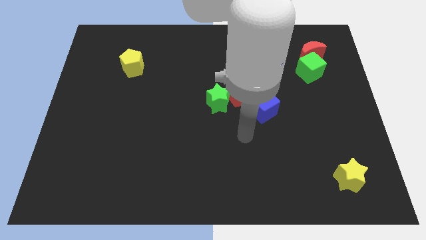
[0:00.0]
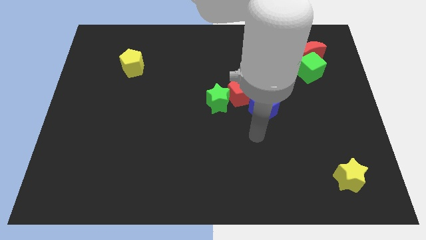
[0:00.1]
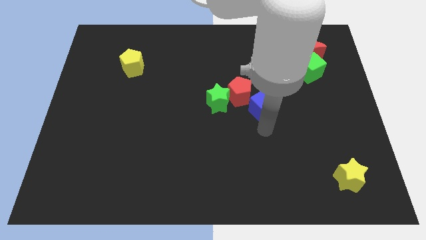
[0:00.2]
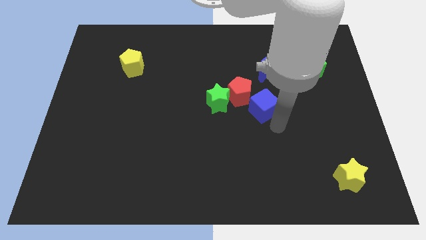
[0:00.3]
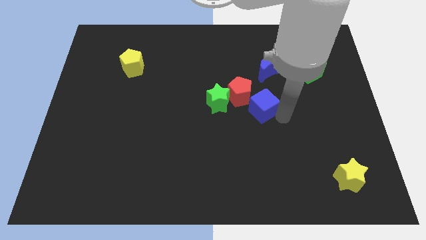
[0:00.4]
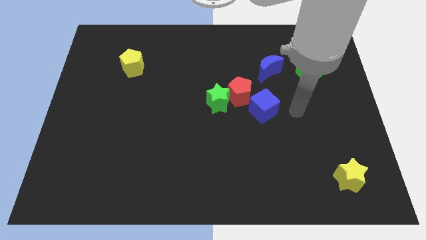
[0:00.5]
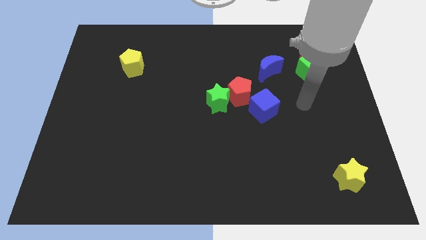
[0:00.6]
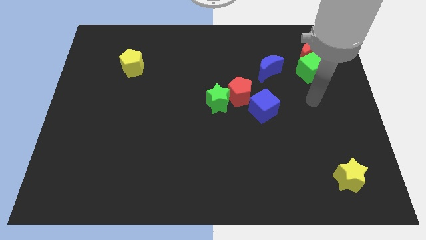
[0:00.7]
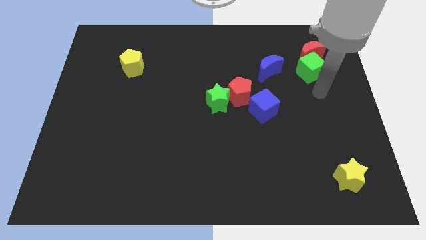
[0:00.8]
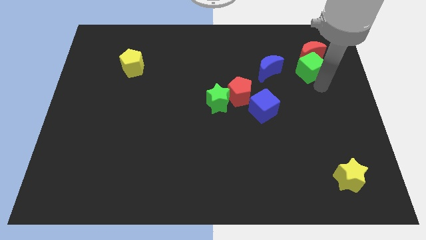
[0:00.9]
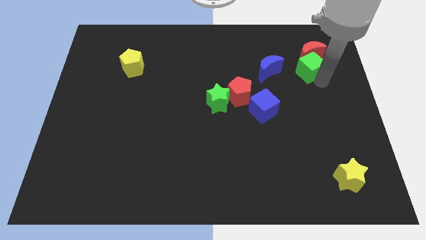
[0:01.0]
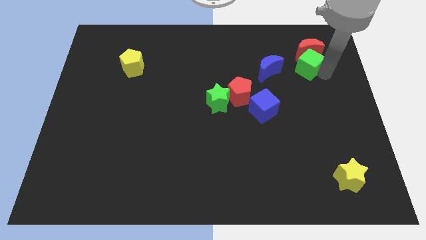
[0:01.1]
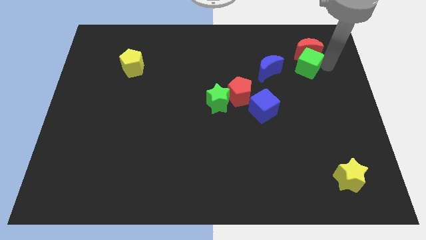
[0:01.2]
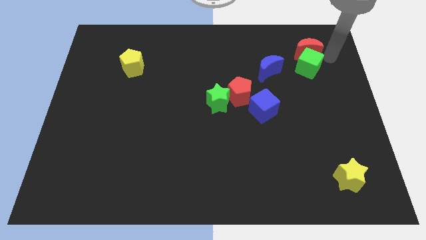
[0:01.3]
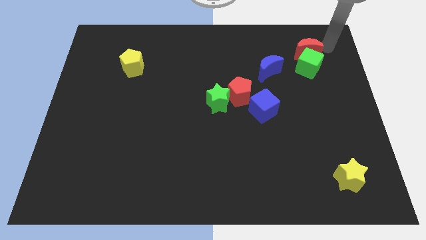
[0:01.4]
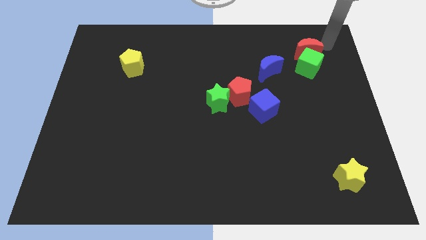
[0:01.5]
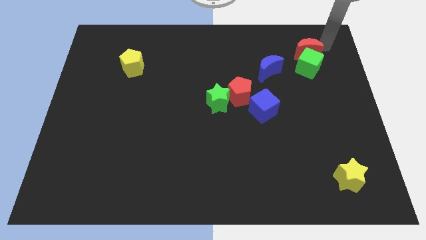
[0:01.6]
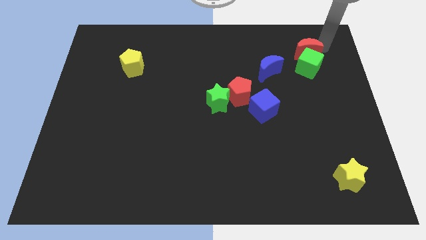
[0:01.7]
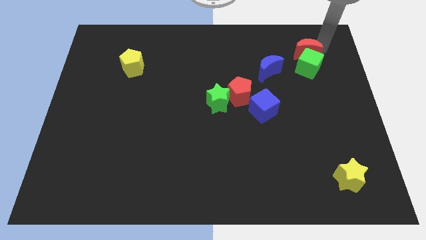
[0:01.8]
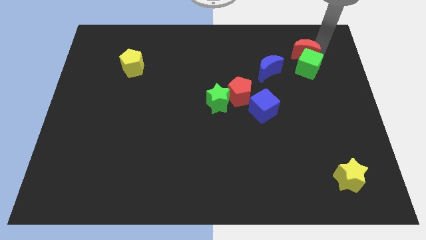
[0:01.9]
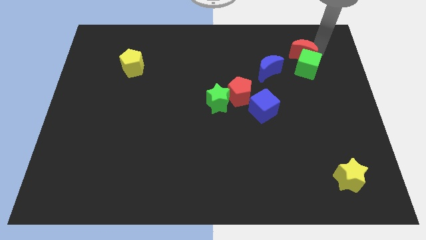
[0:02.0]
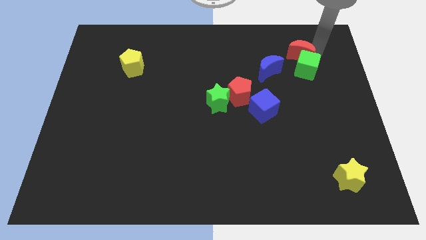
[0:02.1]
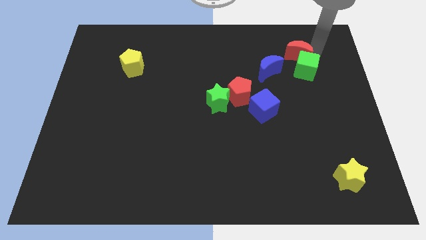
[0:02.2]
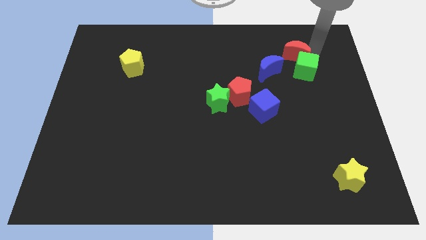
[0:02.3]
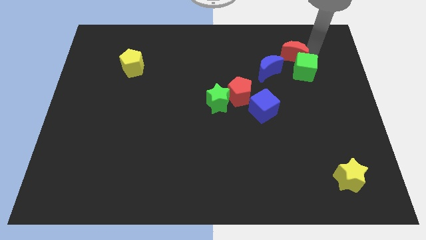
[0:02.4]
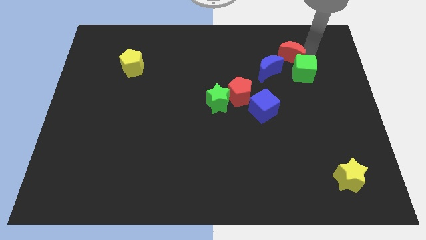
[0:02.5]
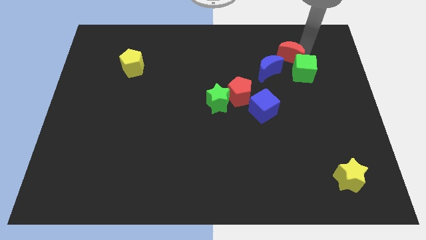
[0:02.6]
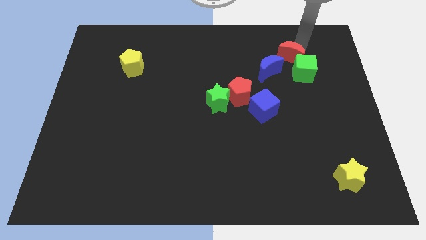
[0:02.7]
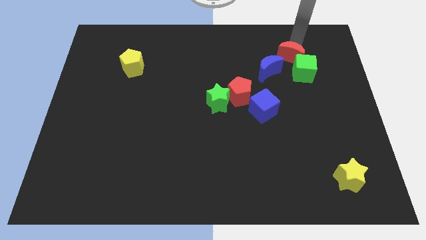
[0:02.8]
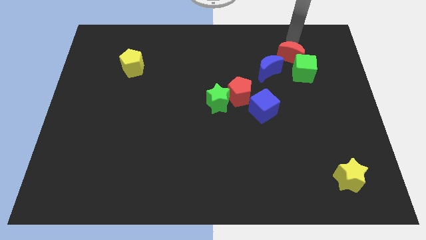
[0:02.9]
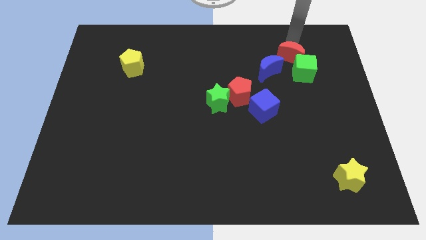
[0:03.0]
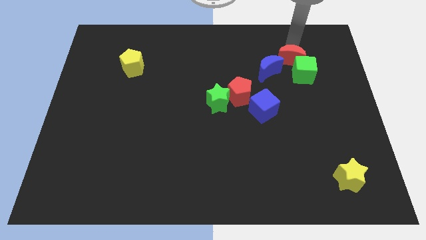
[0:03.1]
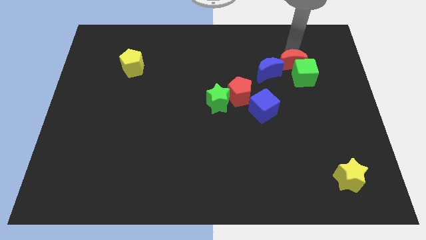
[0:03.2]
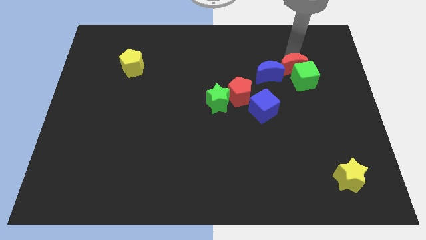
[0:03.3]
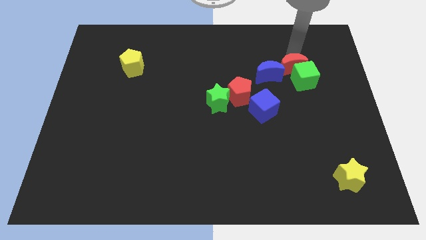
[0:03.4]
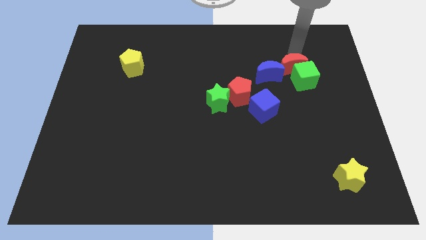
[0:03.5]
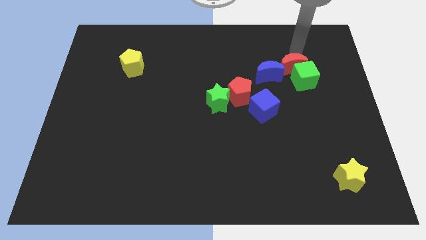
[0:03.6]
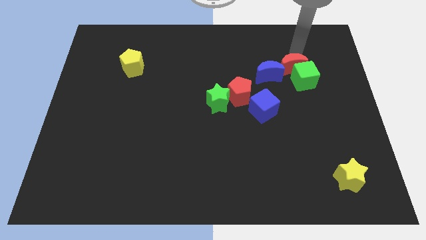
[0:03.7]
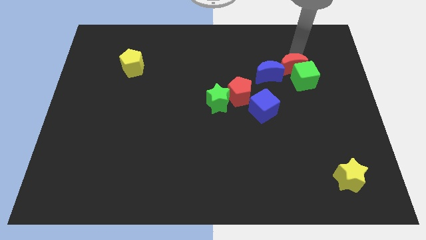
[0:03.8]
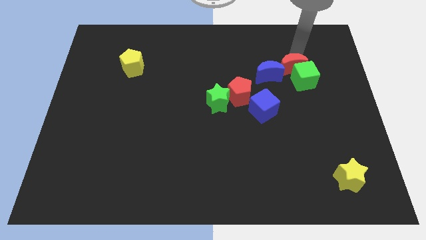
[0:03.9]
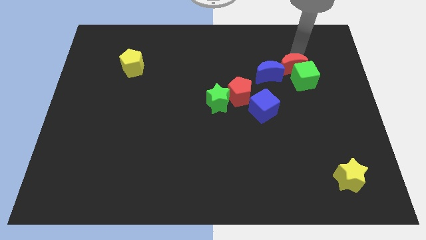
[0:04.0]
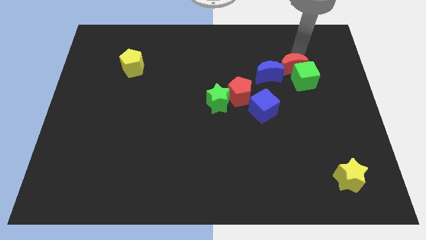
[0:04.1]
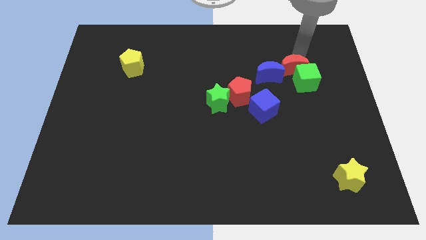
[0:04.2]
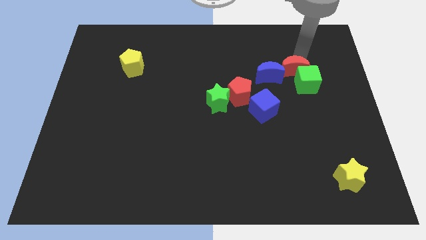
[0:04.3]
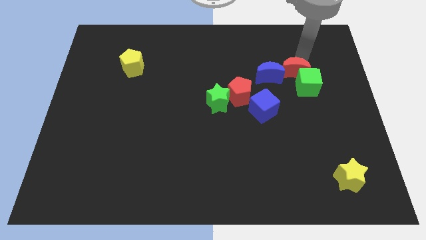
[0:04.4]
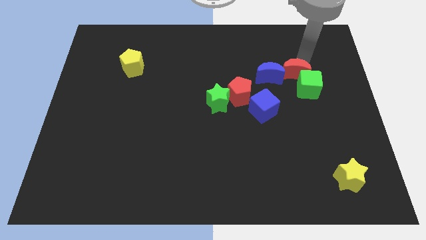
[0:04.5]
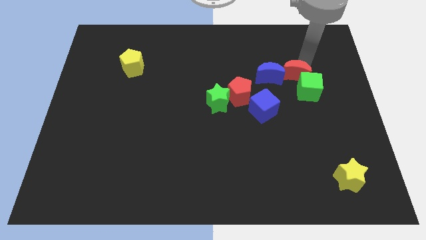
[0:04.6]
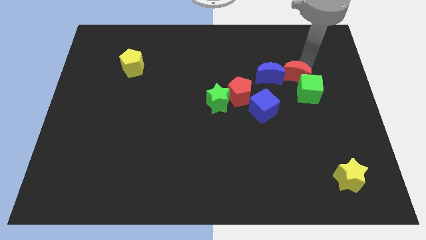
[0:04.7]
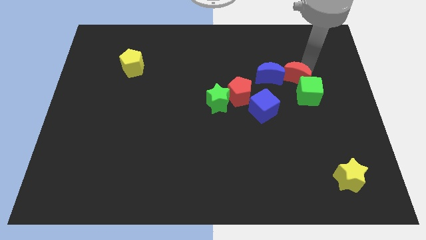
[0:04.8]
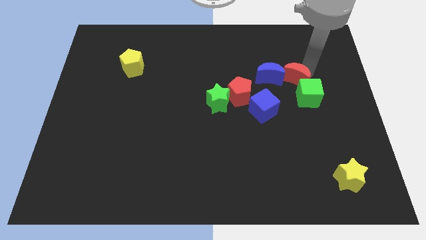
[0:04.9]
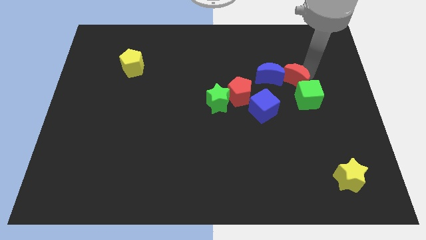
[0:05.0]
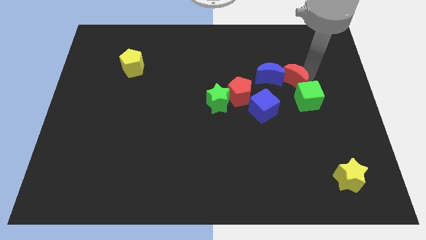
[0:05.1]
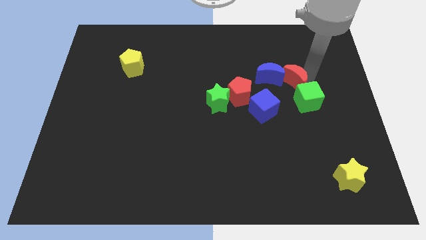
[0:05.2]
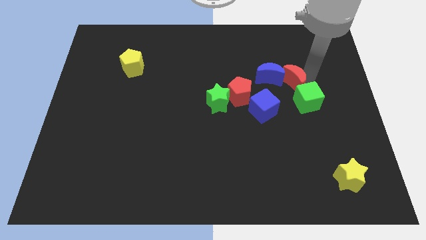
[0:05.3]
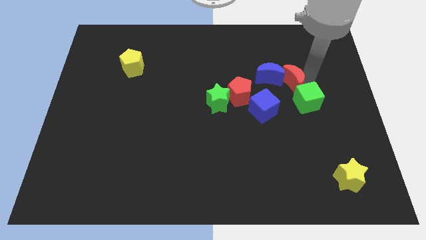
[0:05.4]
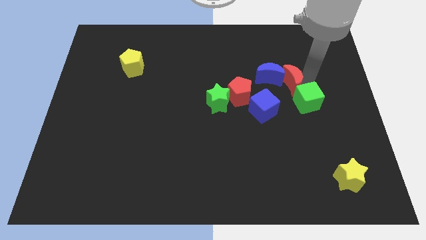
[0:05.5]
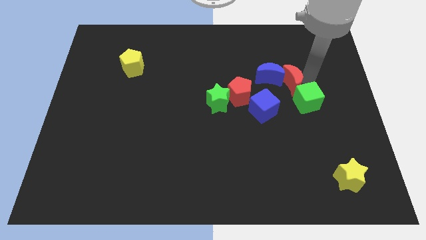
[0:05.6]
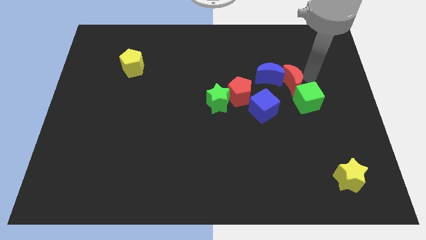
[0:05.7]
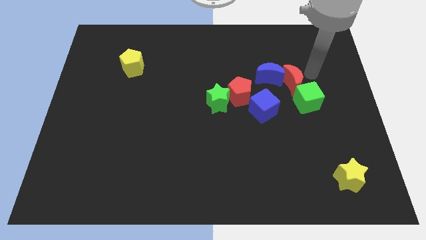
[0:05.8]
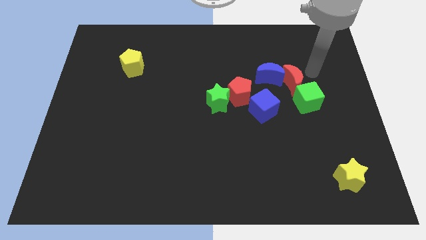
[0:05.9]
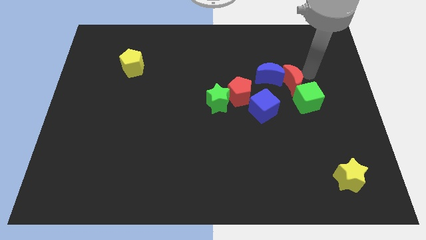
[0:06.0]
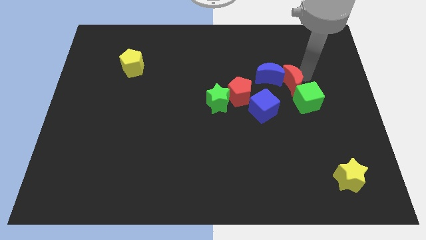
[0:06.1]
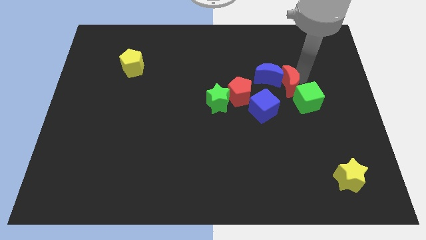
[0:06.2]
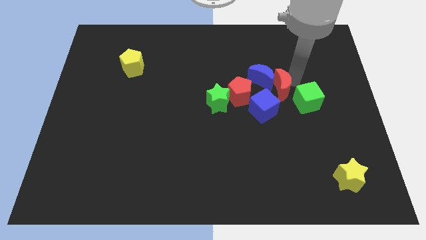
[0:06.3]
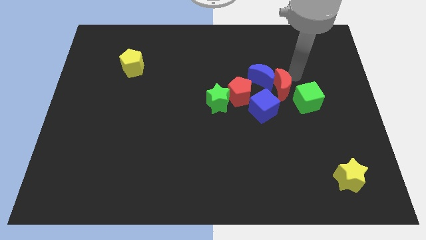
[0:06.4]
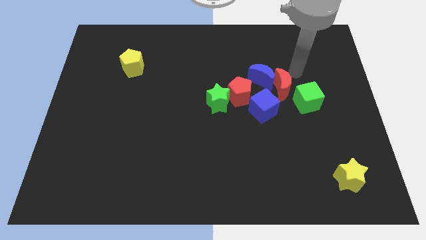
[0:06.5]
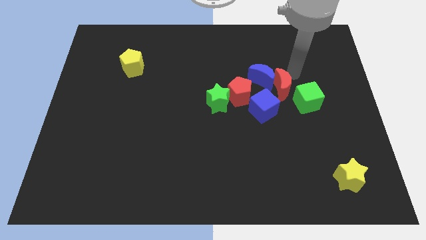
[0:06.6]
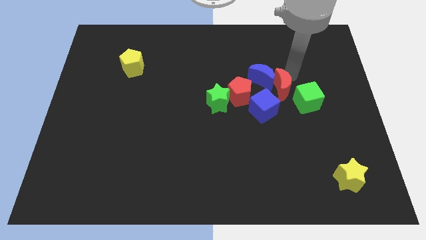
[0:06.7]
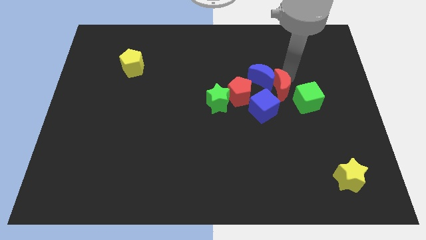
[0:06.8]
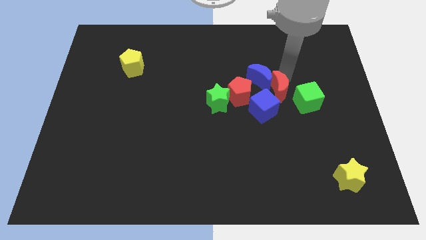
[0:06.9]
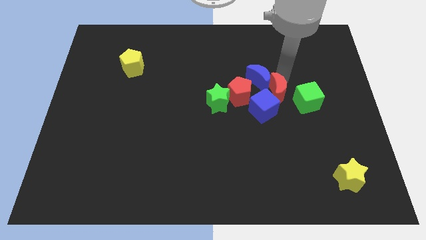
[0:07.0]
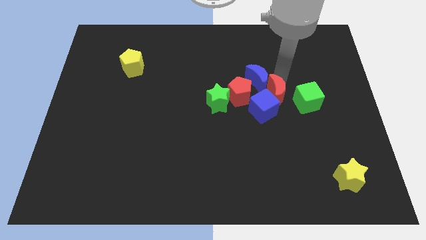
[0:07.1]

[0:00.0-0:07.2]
slide the red moon to the blue cube

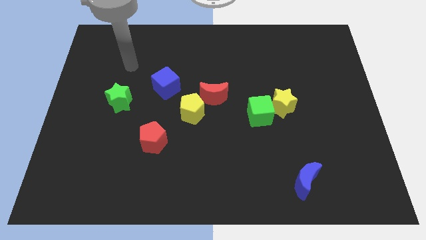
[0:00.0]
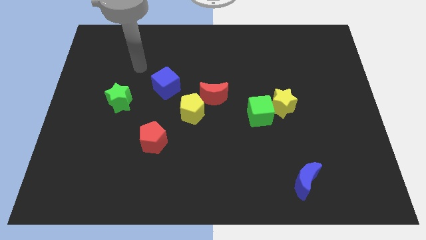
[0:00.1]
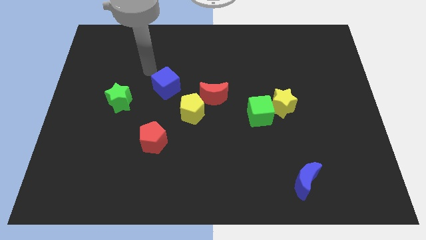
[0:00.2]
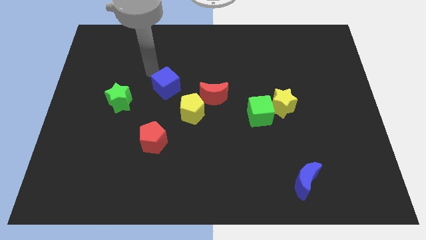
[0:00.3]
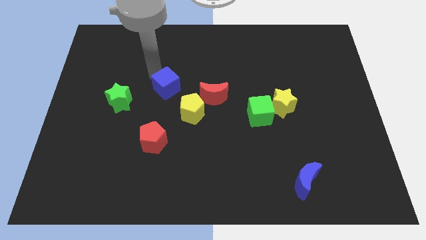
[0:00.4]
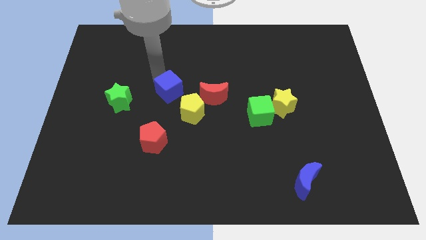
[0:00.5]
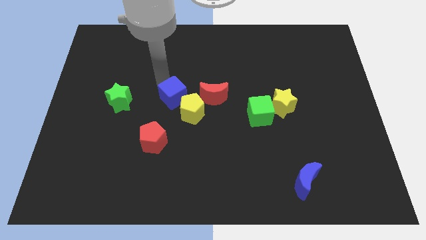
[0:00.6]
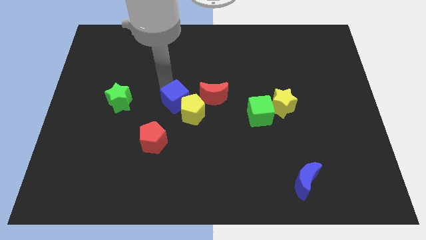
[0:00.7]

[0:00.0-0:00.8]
push the blue cube close to the yellow pentagon
